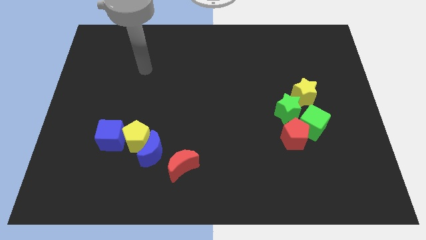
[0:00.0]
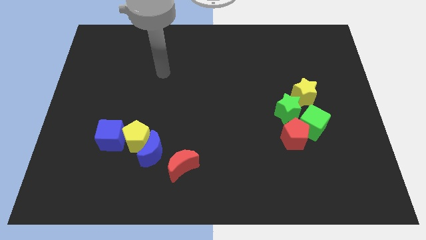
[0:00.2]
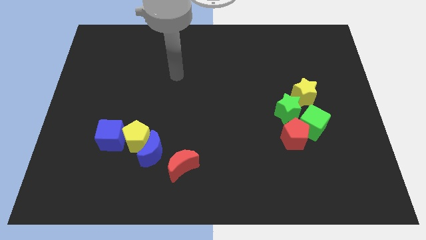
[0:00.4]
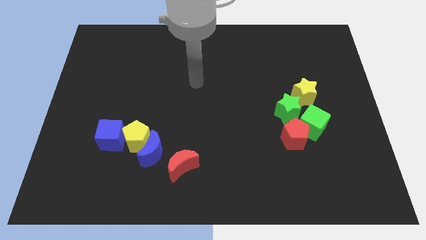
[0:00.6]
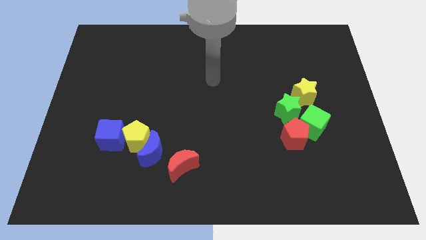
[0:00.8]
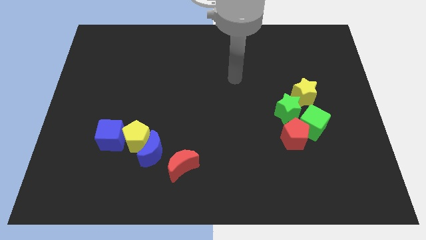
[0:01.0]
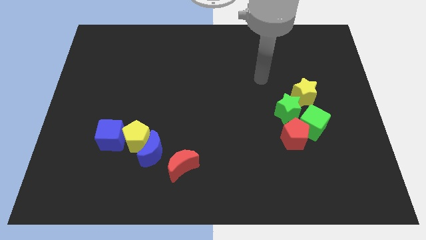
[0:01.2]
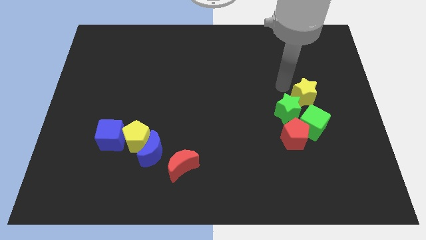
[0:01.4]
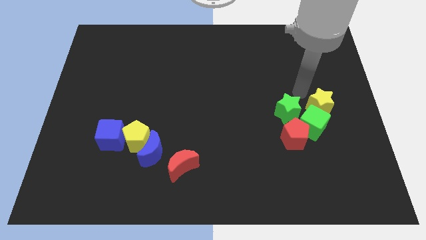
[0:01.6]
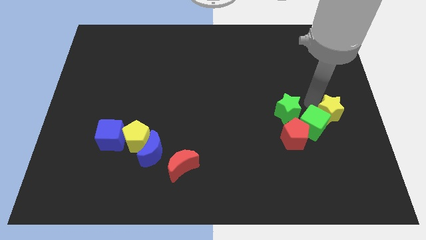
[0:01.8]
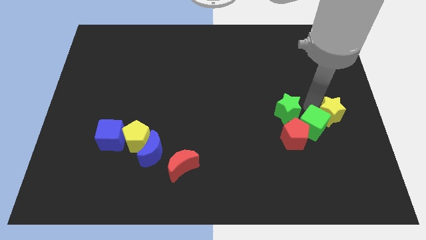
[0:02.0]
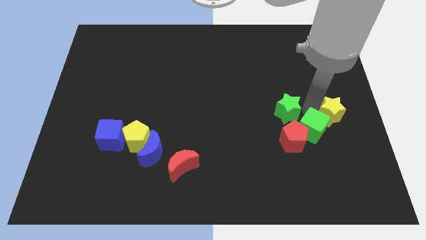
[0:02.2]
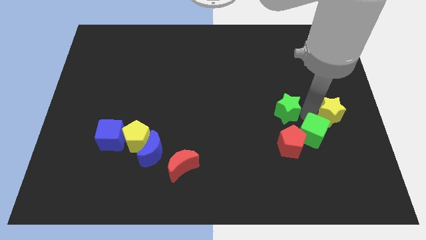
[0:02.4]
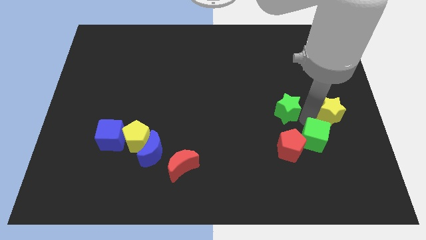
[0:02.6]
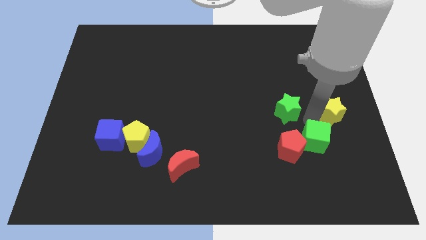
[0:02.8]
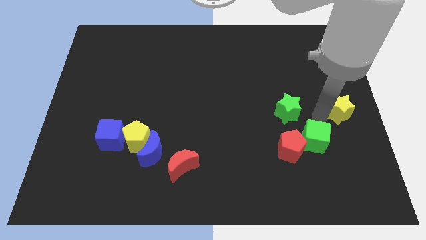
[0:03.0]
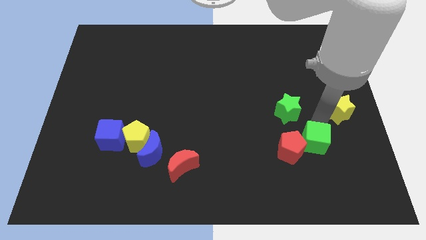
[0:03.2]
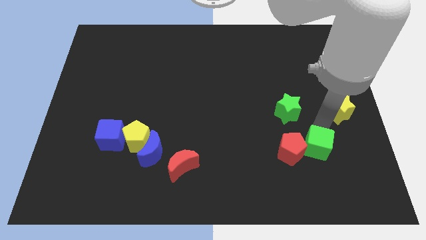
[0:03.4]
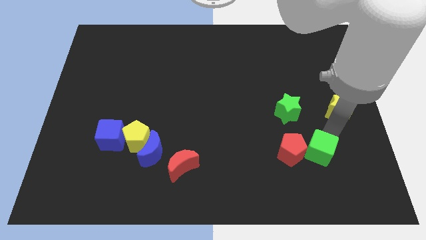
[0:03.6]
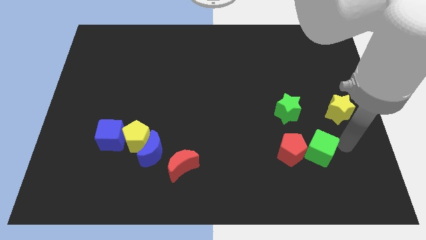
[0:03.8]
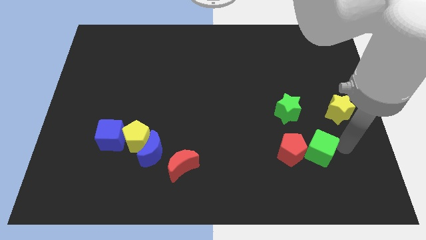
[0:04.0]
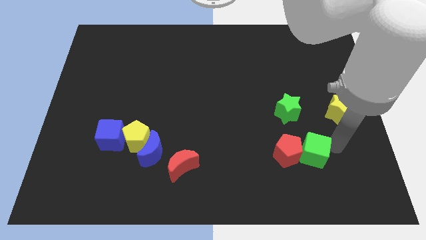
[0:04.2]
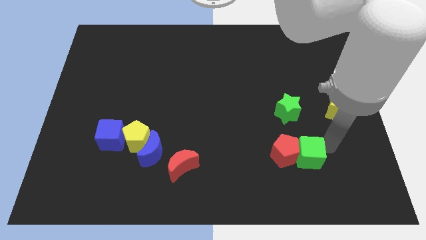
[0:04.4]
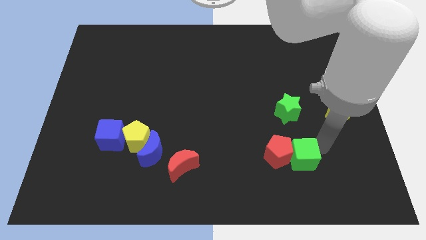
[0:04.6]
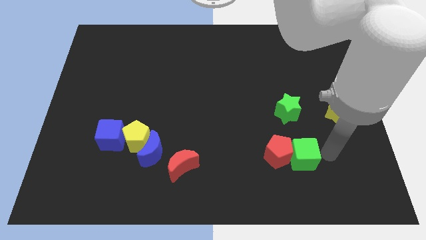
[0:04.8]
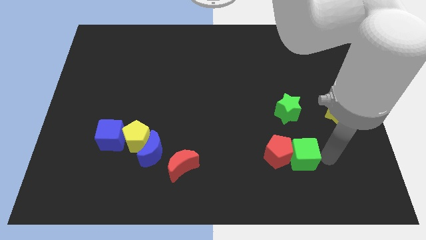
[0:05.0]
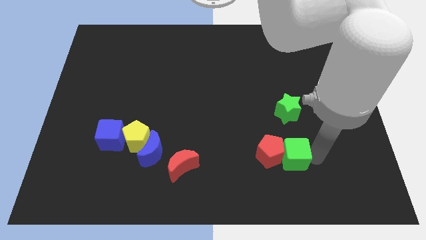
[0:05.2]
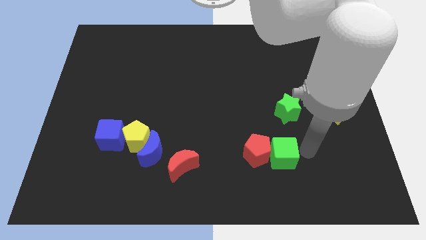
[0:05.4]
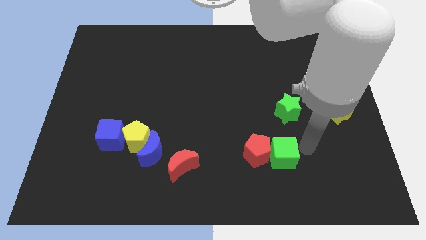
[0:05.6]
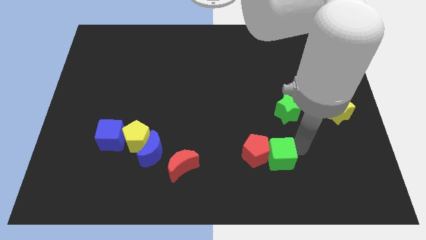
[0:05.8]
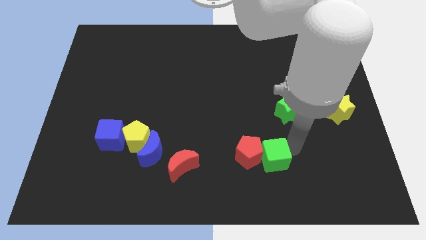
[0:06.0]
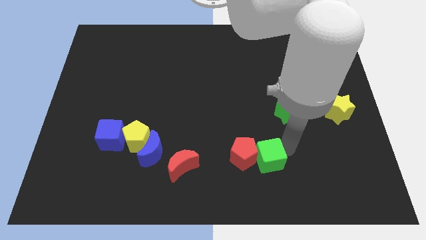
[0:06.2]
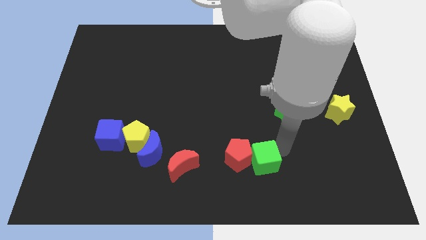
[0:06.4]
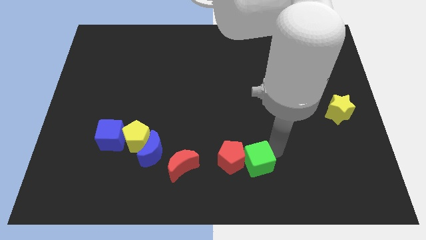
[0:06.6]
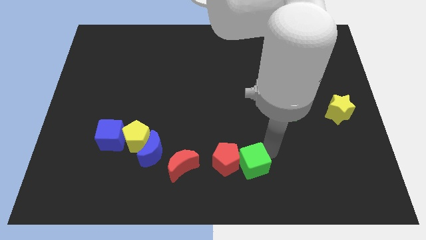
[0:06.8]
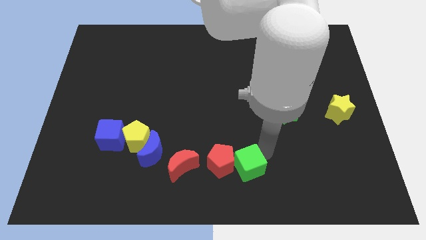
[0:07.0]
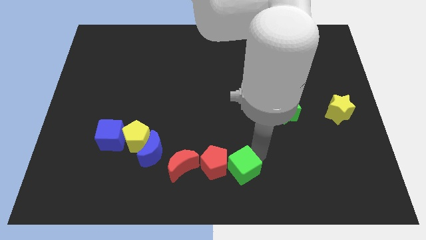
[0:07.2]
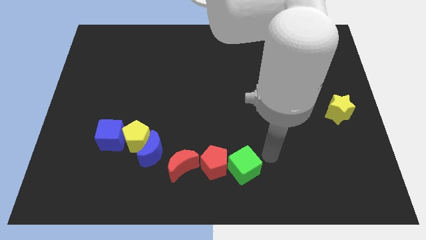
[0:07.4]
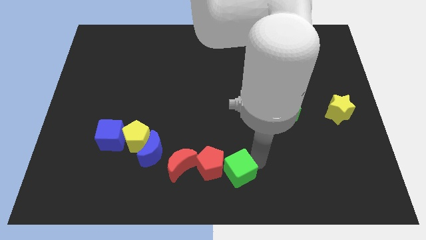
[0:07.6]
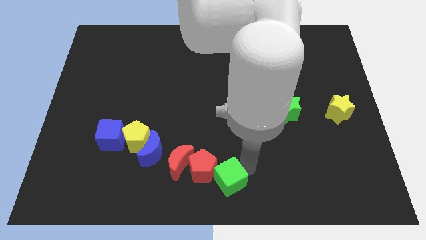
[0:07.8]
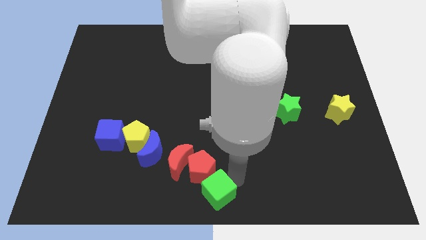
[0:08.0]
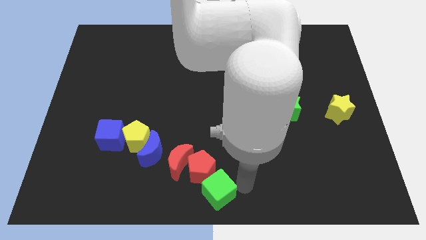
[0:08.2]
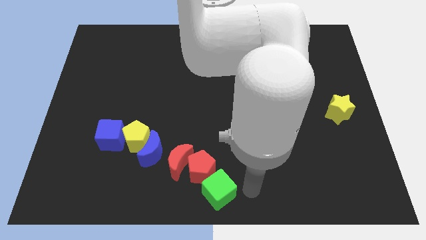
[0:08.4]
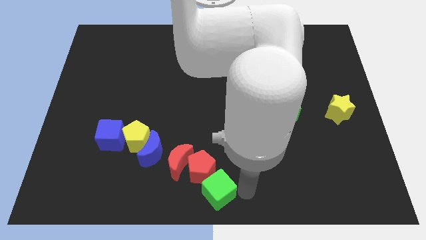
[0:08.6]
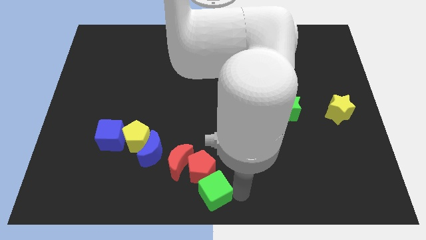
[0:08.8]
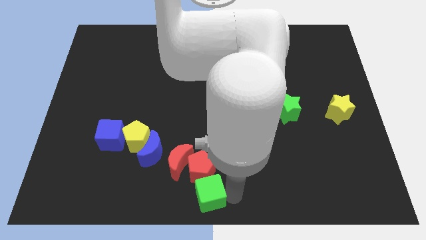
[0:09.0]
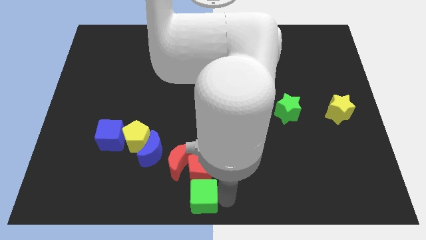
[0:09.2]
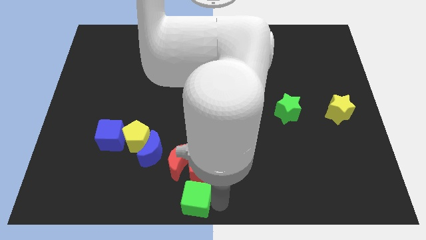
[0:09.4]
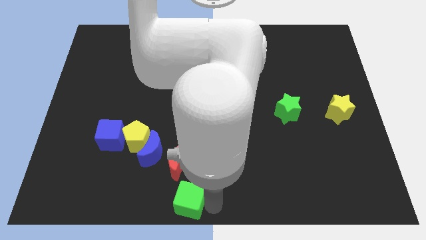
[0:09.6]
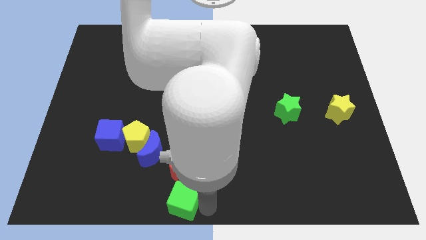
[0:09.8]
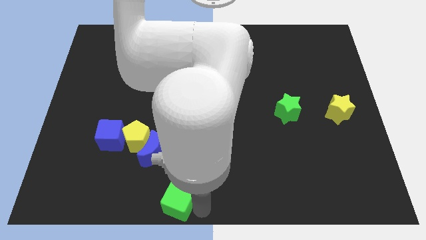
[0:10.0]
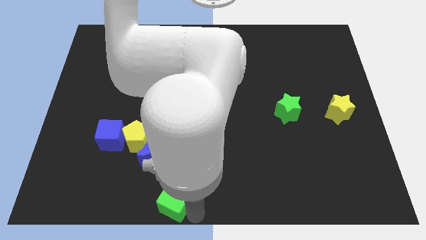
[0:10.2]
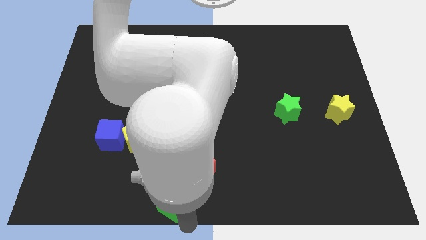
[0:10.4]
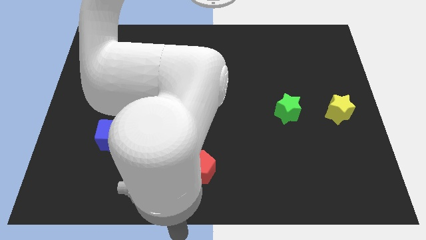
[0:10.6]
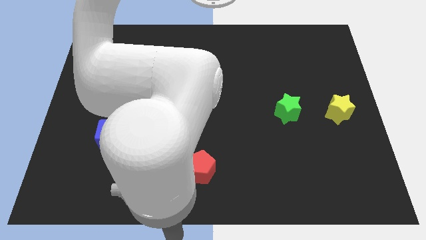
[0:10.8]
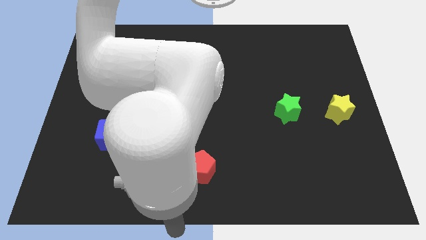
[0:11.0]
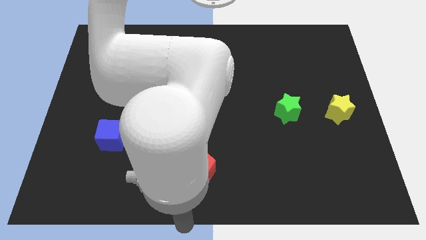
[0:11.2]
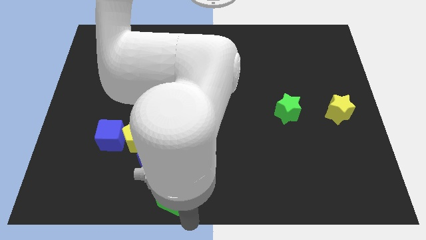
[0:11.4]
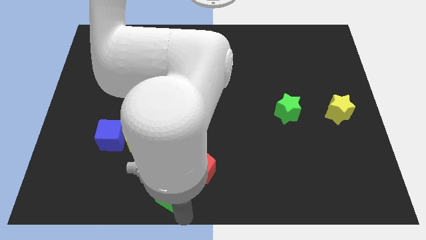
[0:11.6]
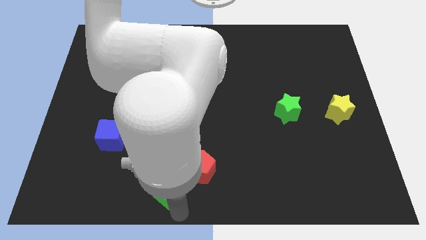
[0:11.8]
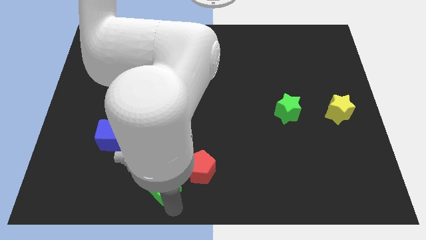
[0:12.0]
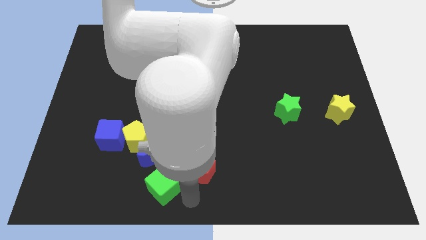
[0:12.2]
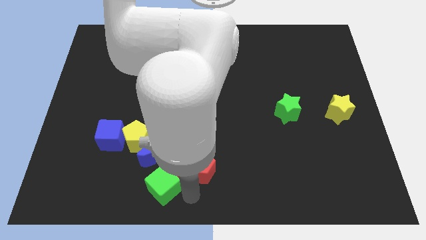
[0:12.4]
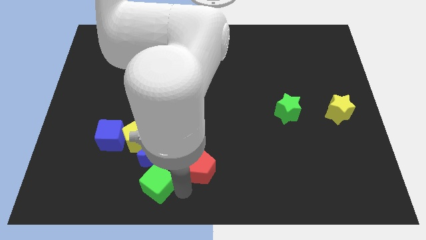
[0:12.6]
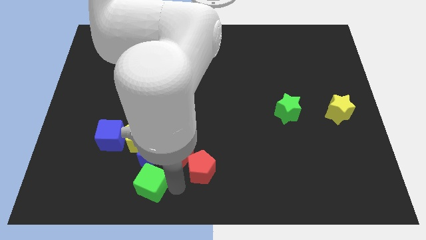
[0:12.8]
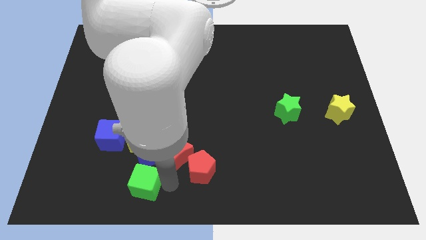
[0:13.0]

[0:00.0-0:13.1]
put the green cube diagonally down and to the left of the blue moon

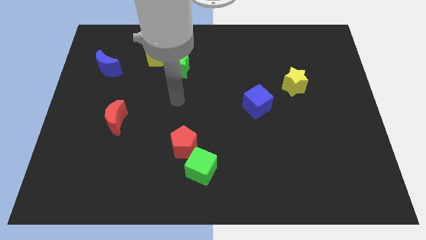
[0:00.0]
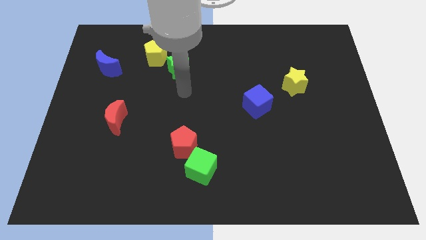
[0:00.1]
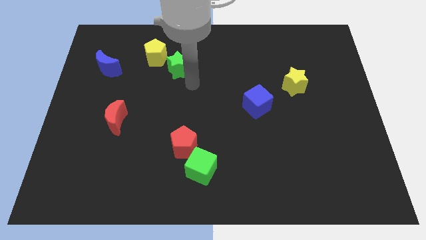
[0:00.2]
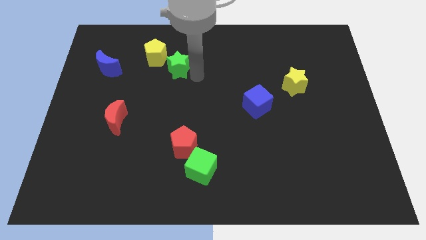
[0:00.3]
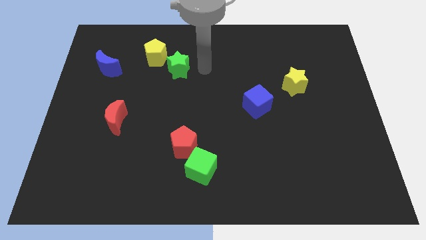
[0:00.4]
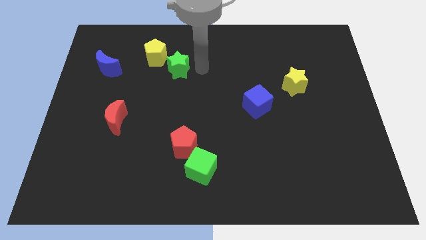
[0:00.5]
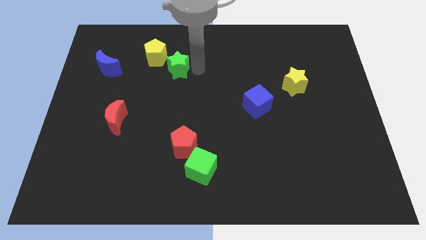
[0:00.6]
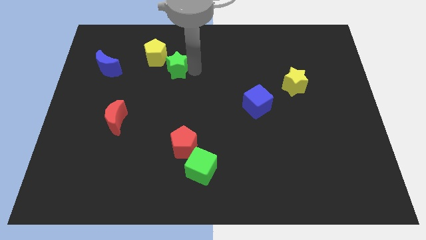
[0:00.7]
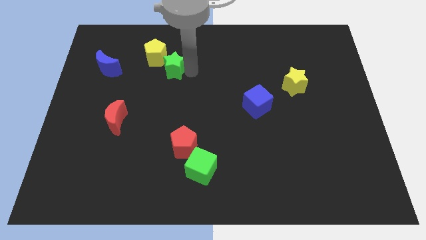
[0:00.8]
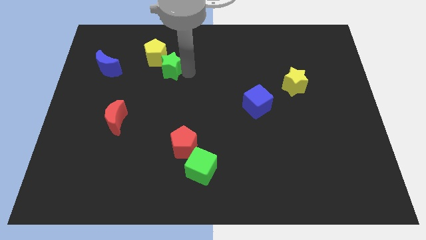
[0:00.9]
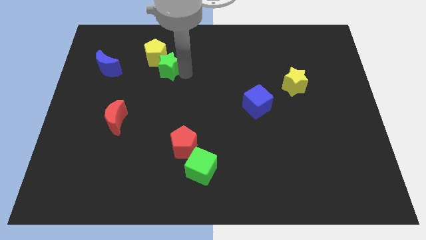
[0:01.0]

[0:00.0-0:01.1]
slide the green star to the right side of the blue moon
